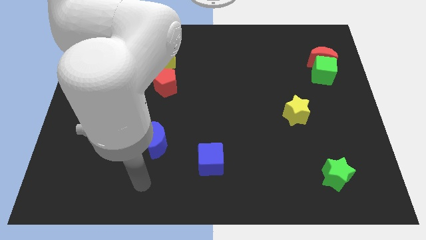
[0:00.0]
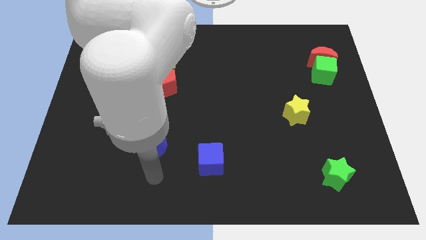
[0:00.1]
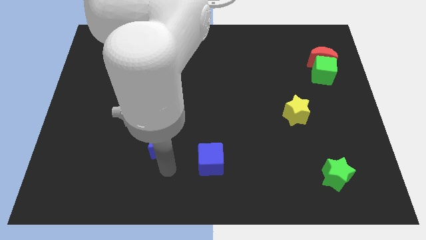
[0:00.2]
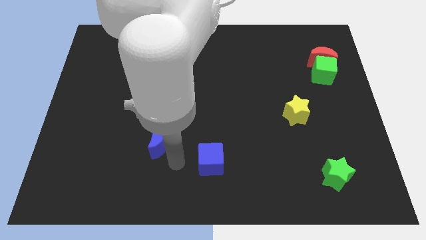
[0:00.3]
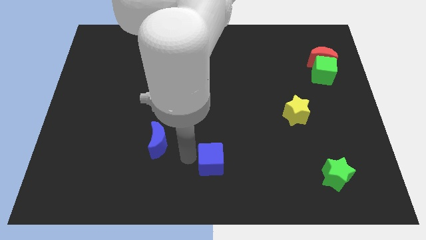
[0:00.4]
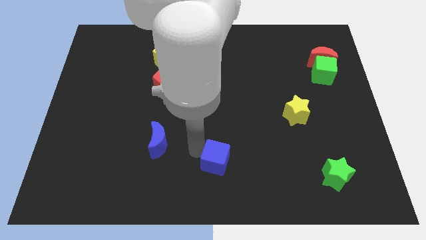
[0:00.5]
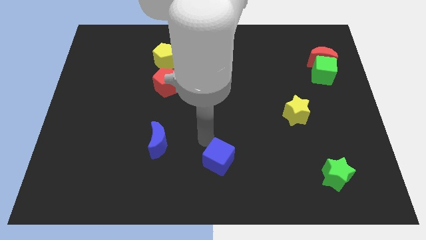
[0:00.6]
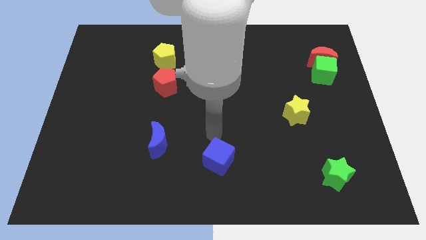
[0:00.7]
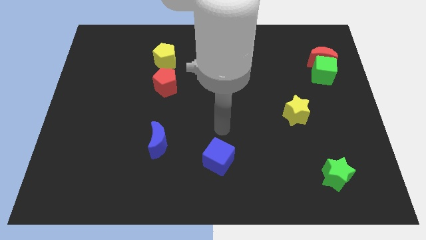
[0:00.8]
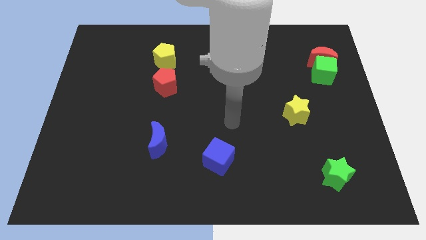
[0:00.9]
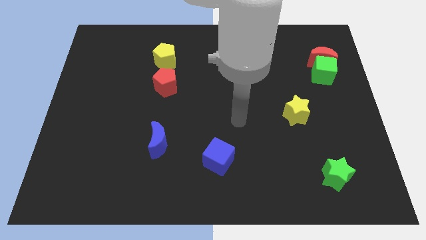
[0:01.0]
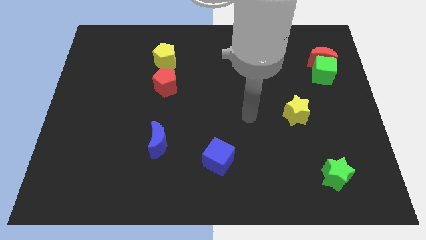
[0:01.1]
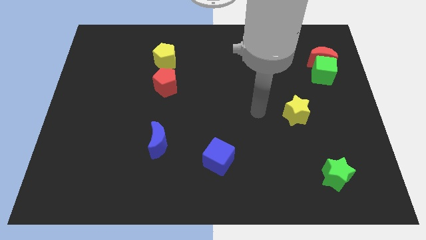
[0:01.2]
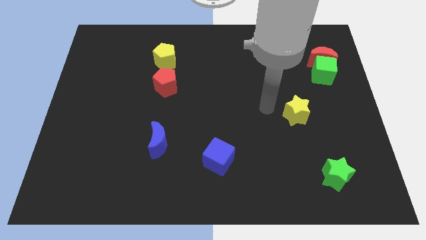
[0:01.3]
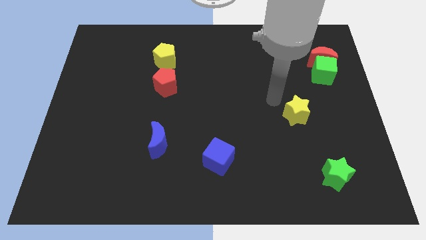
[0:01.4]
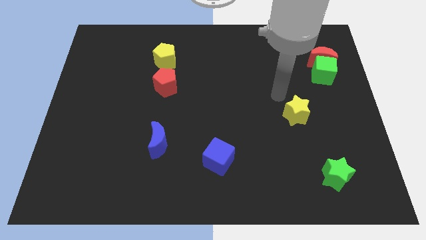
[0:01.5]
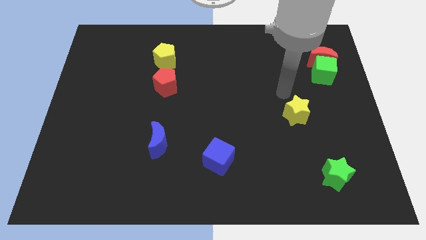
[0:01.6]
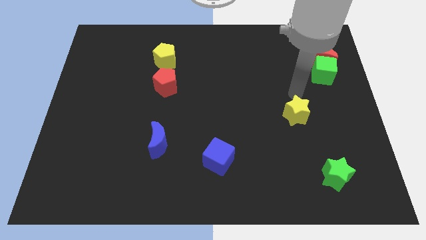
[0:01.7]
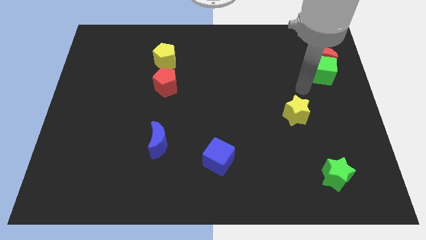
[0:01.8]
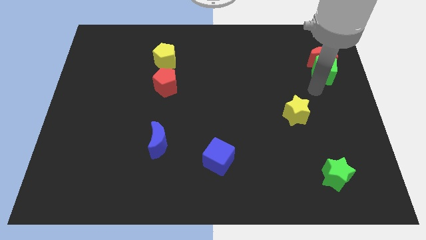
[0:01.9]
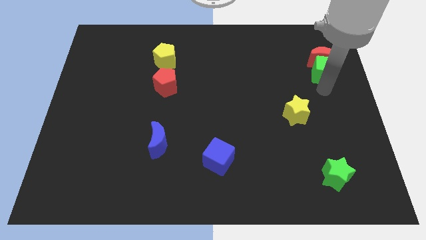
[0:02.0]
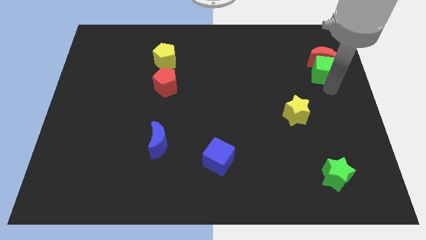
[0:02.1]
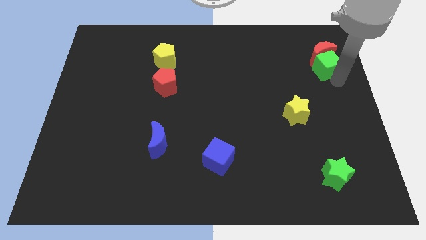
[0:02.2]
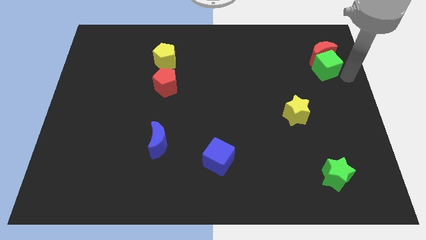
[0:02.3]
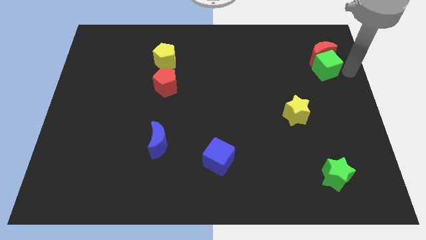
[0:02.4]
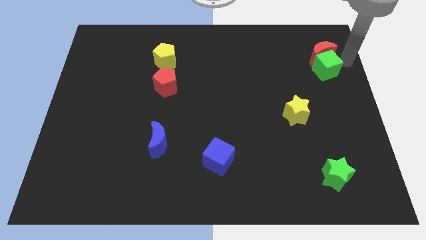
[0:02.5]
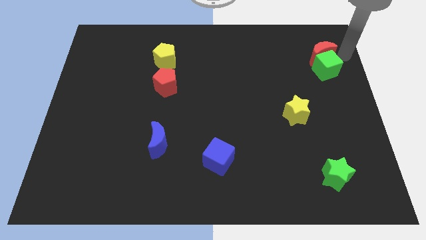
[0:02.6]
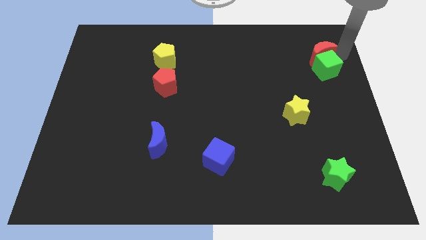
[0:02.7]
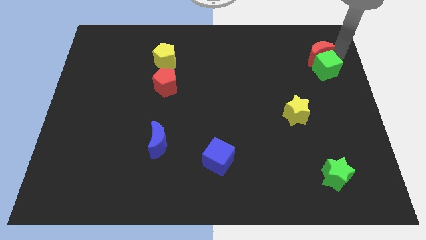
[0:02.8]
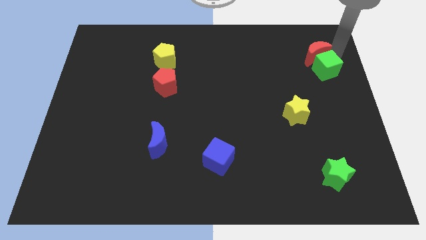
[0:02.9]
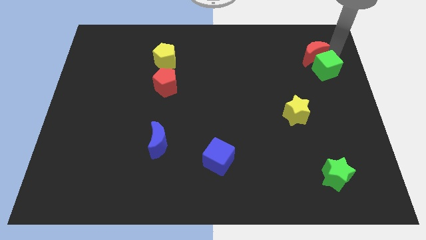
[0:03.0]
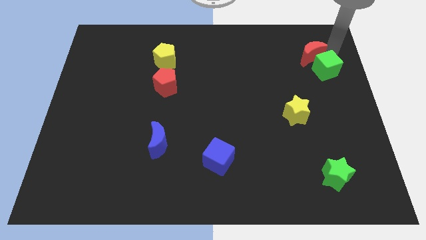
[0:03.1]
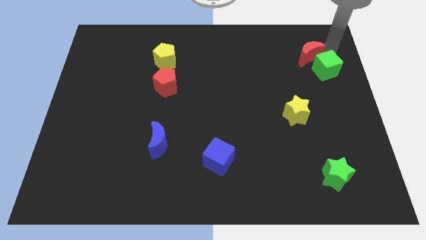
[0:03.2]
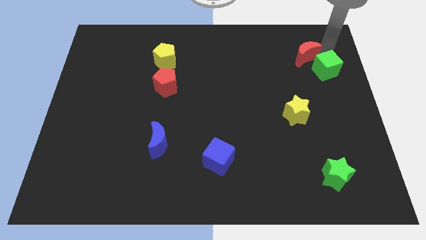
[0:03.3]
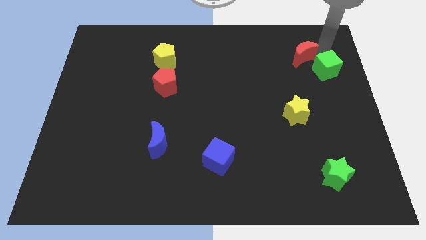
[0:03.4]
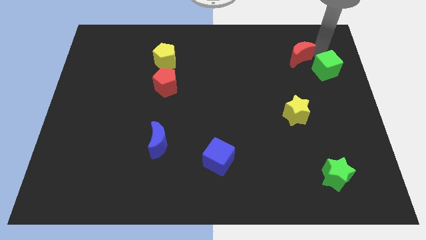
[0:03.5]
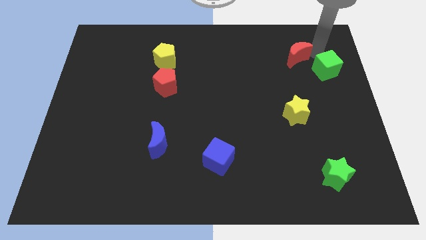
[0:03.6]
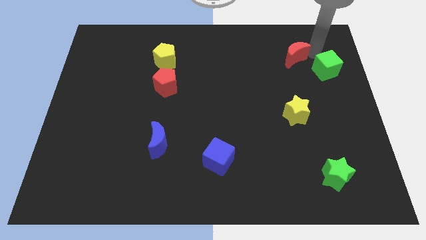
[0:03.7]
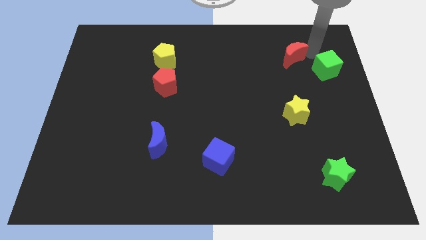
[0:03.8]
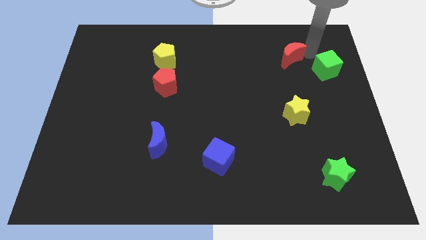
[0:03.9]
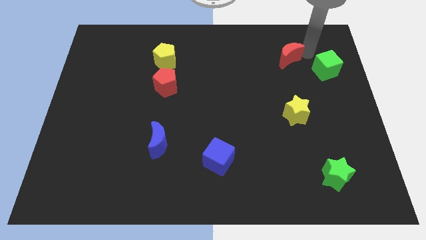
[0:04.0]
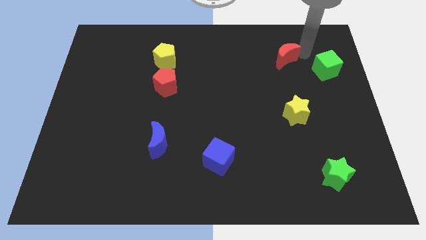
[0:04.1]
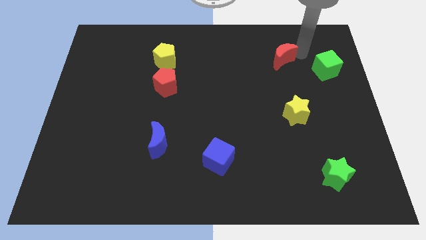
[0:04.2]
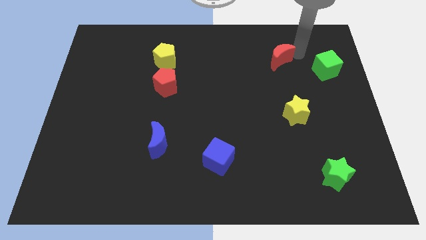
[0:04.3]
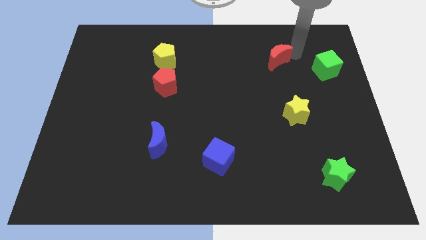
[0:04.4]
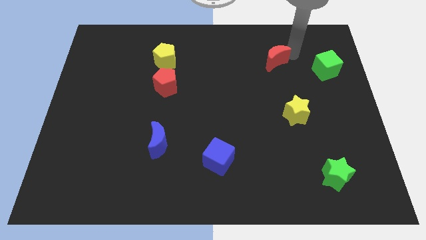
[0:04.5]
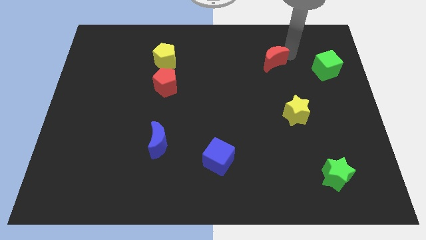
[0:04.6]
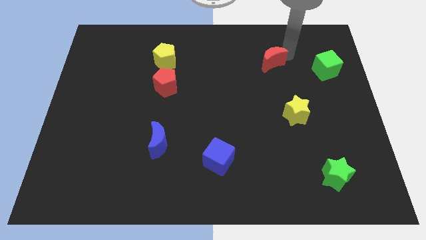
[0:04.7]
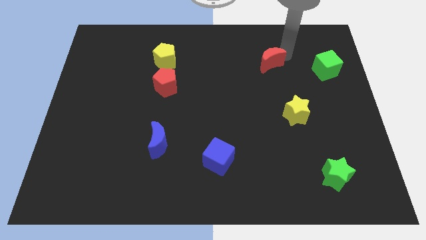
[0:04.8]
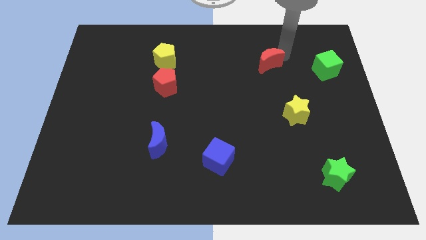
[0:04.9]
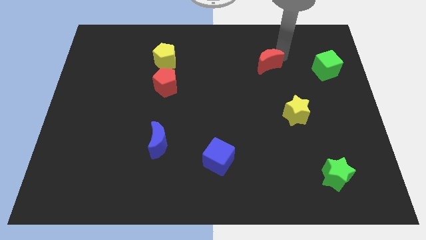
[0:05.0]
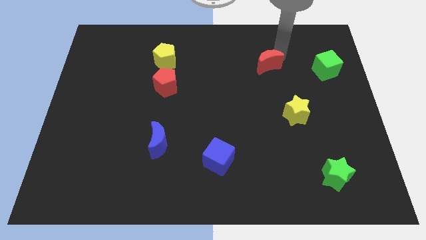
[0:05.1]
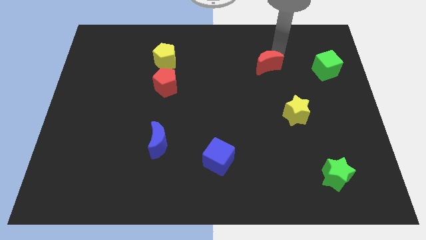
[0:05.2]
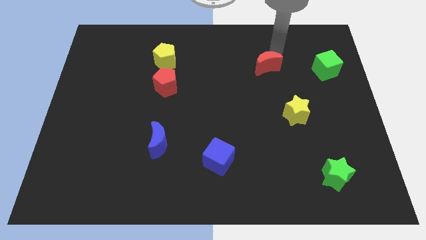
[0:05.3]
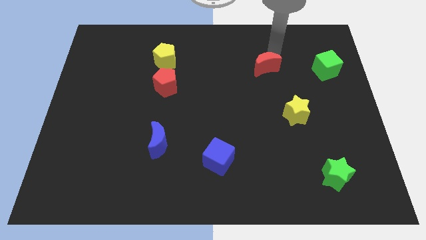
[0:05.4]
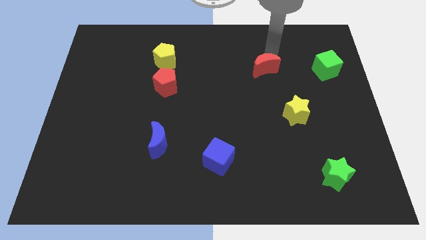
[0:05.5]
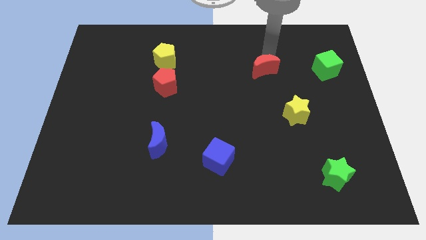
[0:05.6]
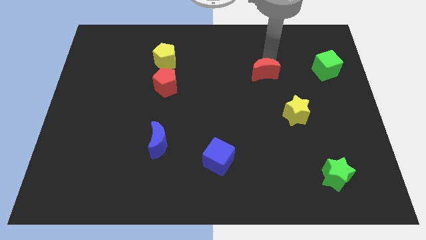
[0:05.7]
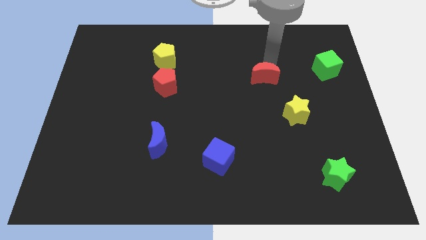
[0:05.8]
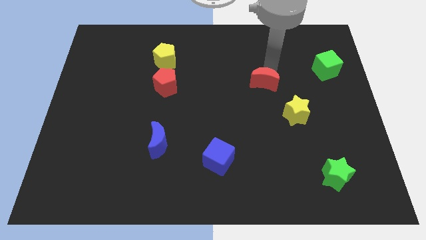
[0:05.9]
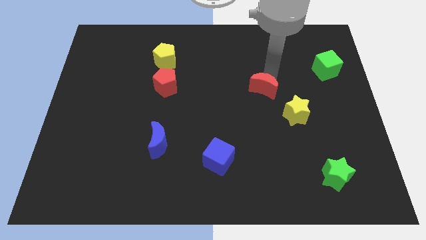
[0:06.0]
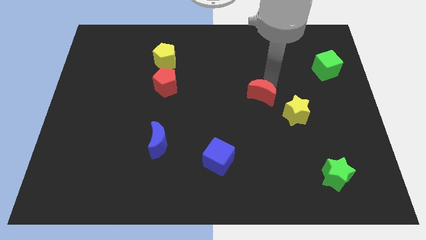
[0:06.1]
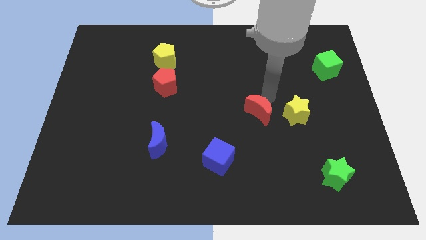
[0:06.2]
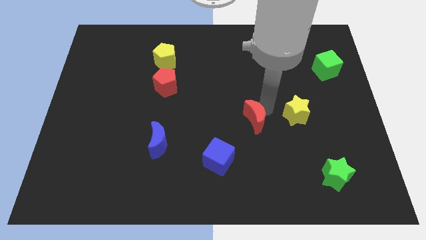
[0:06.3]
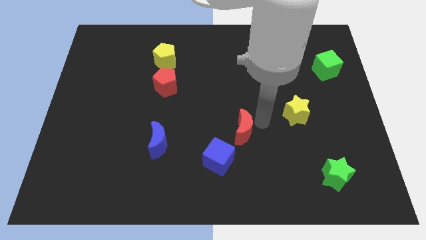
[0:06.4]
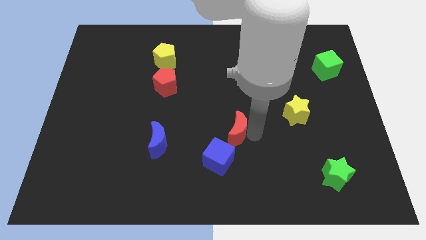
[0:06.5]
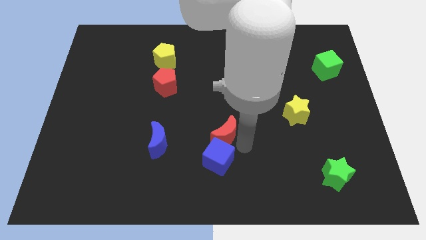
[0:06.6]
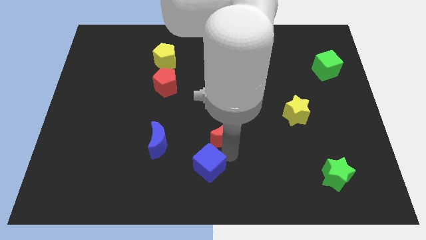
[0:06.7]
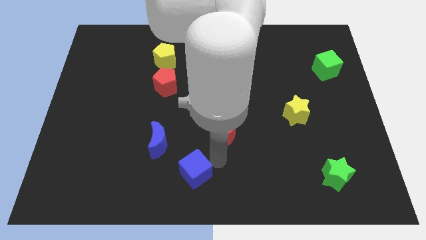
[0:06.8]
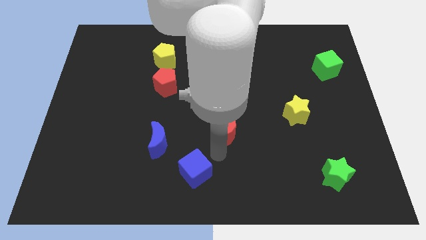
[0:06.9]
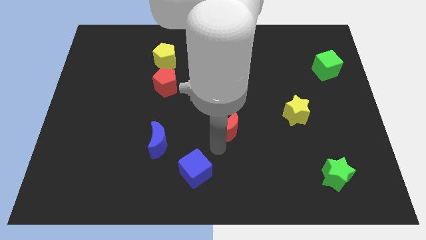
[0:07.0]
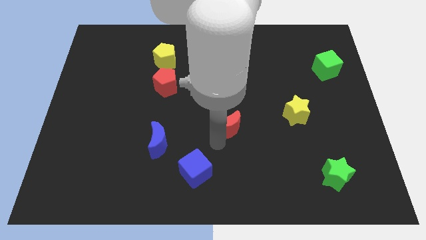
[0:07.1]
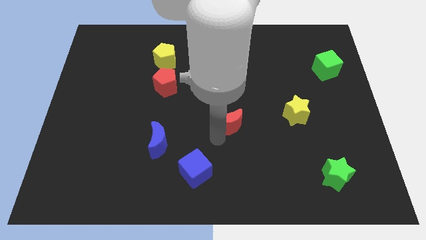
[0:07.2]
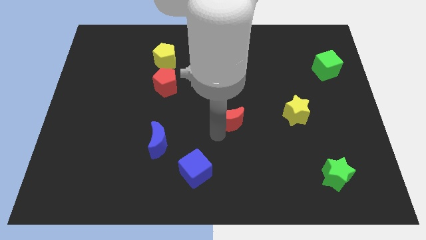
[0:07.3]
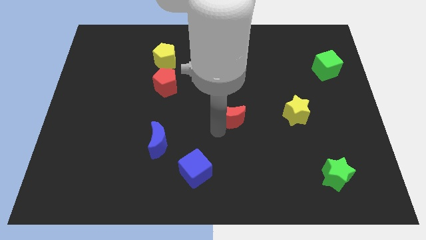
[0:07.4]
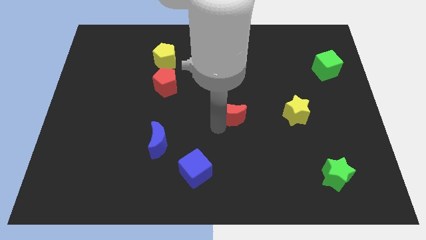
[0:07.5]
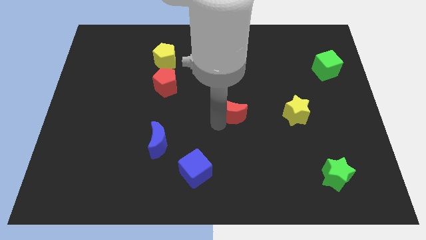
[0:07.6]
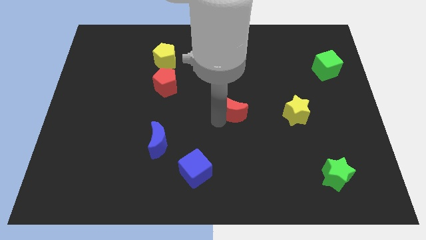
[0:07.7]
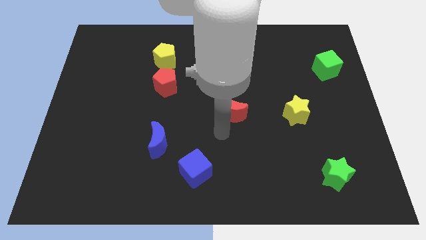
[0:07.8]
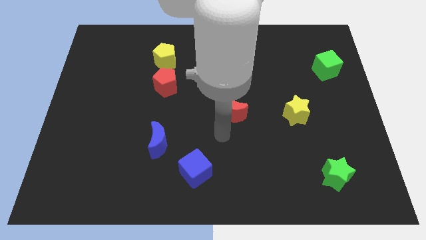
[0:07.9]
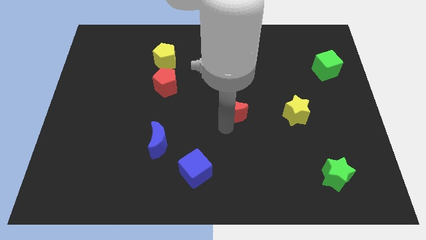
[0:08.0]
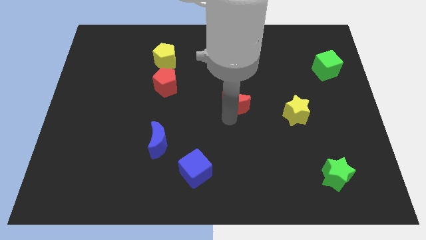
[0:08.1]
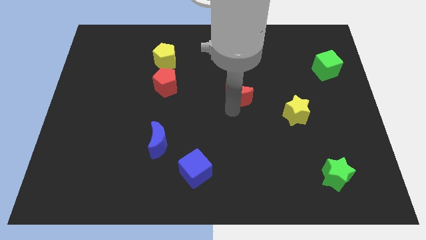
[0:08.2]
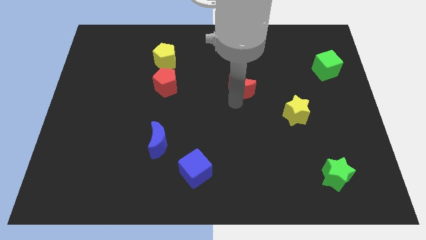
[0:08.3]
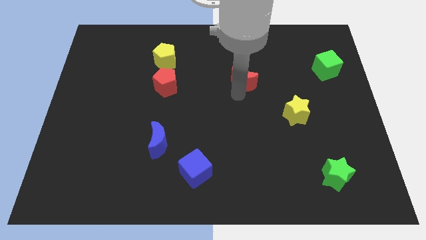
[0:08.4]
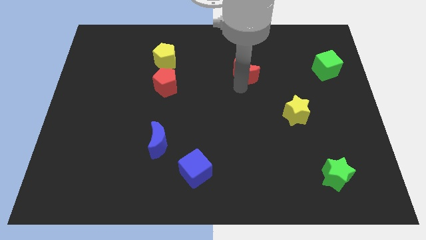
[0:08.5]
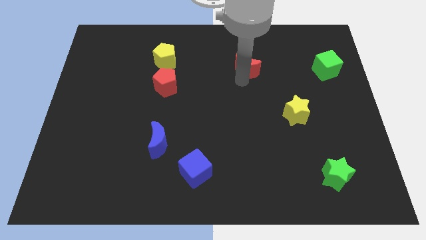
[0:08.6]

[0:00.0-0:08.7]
move the red moon left
